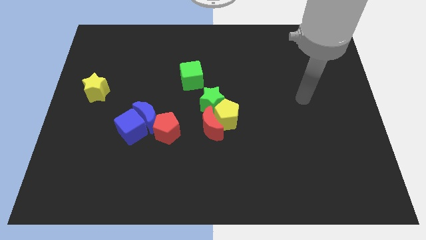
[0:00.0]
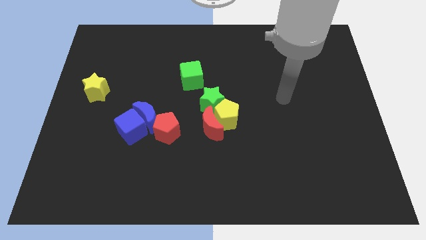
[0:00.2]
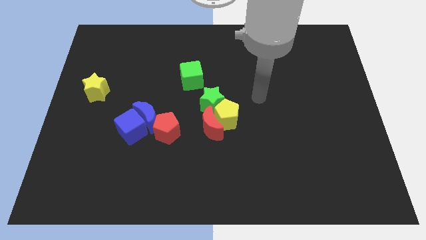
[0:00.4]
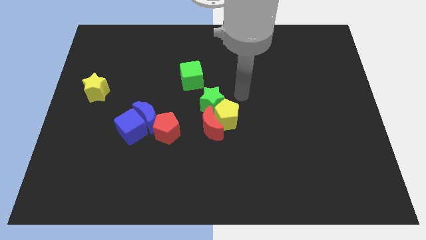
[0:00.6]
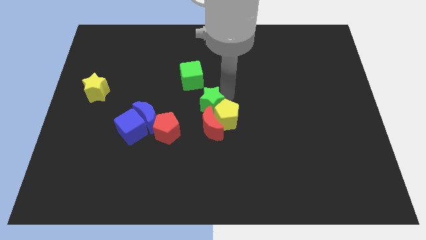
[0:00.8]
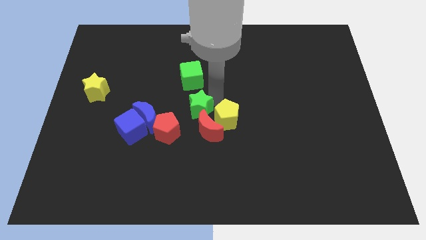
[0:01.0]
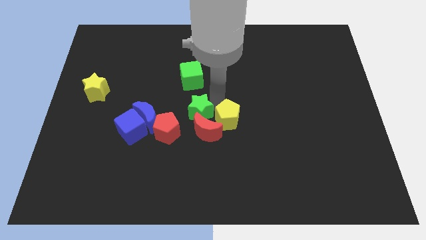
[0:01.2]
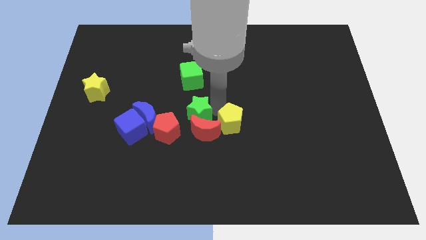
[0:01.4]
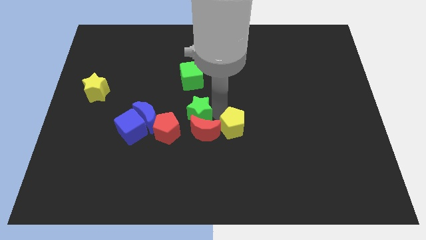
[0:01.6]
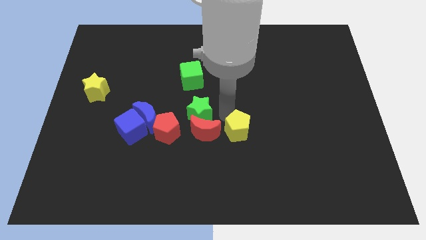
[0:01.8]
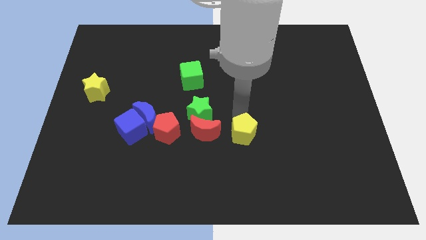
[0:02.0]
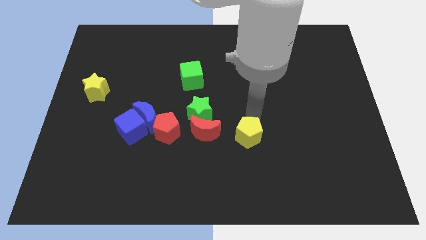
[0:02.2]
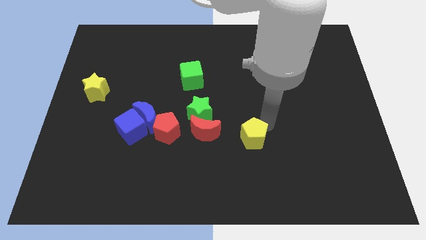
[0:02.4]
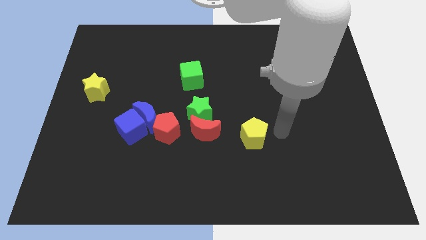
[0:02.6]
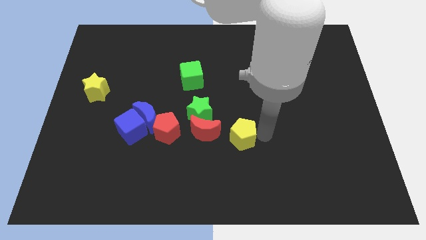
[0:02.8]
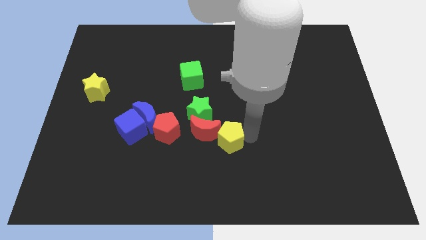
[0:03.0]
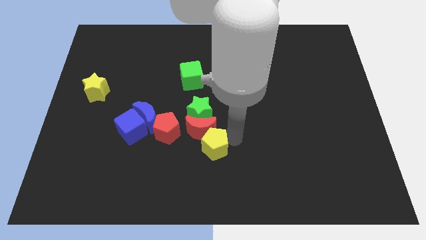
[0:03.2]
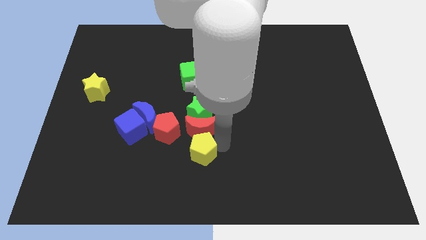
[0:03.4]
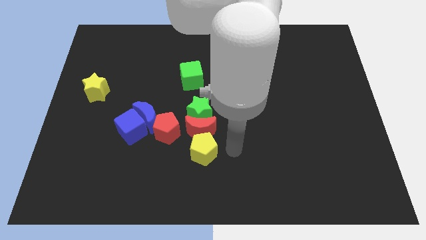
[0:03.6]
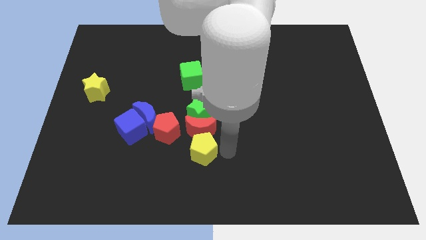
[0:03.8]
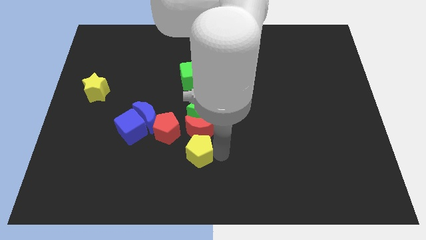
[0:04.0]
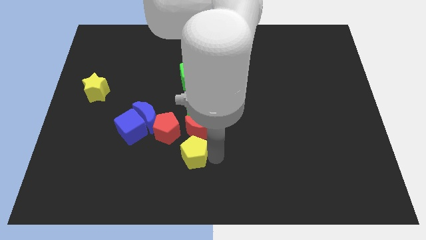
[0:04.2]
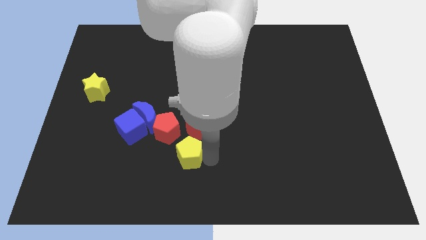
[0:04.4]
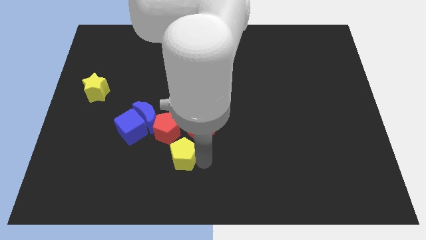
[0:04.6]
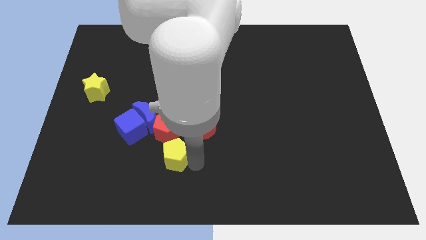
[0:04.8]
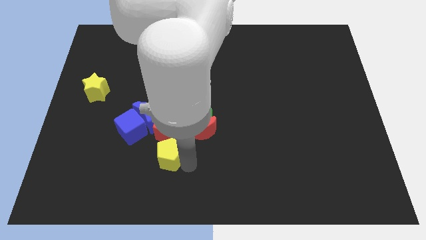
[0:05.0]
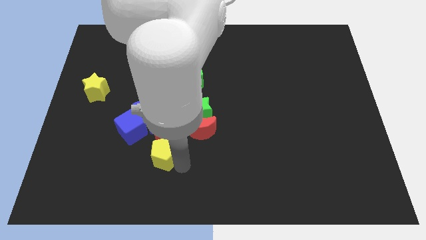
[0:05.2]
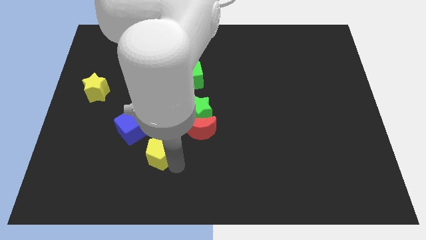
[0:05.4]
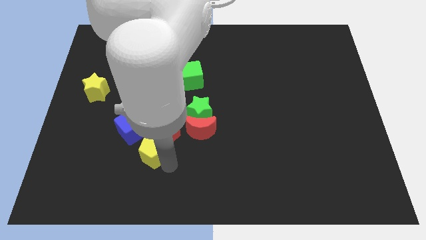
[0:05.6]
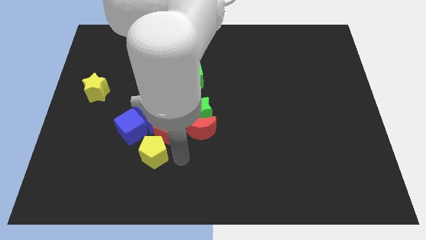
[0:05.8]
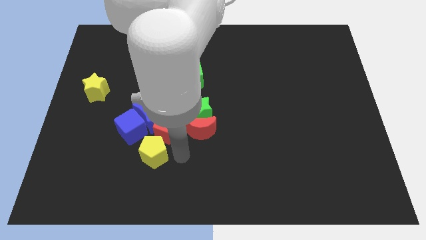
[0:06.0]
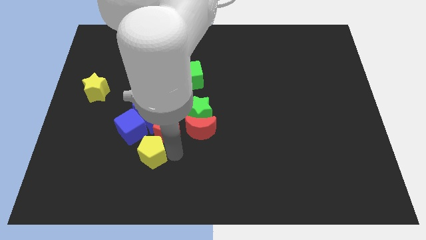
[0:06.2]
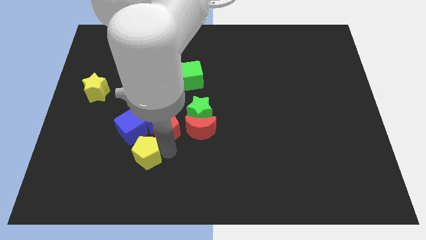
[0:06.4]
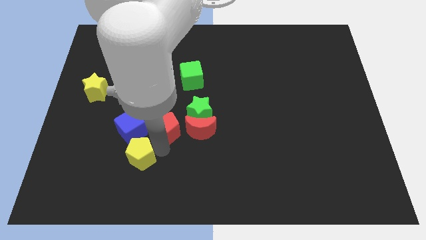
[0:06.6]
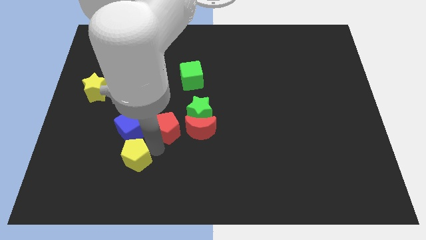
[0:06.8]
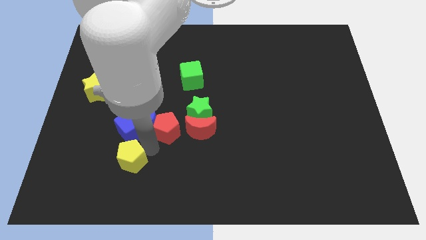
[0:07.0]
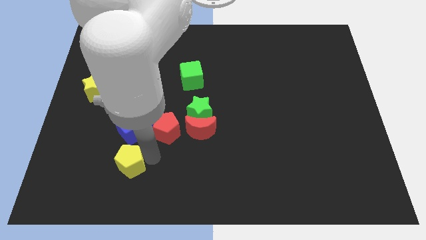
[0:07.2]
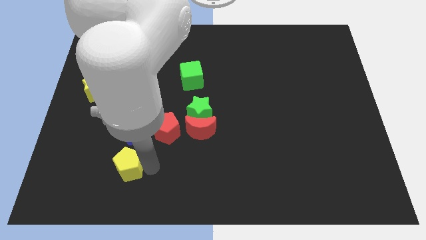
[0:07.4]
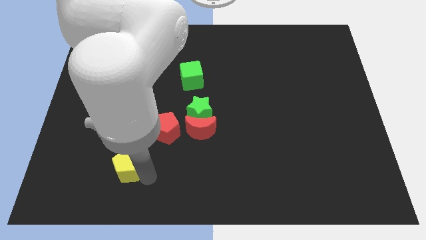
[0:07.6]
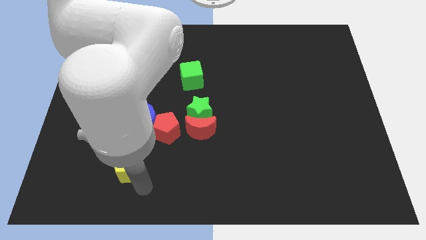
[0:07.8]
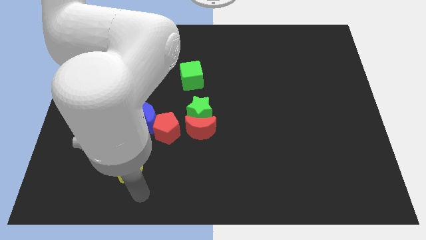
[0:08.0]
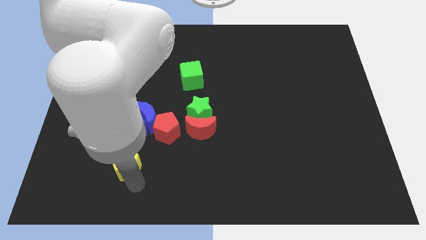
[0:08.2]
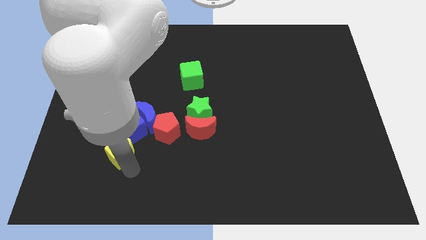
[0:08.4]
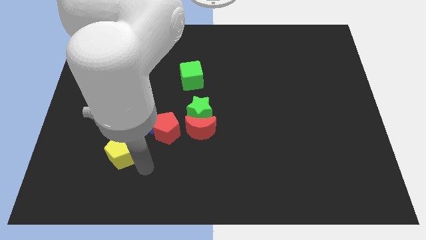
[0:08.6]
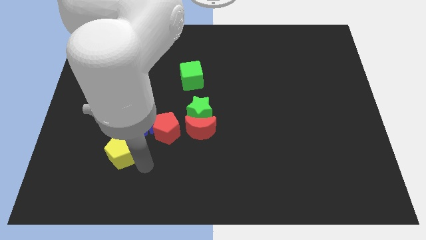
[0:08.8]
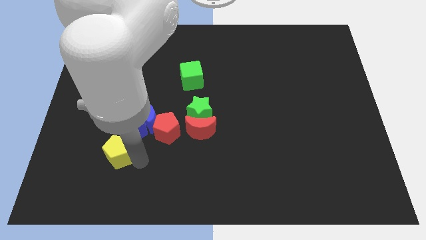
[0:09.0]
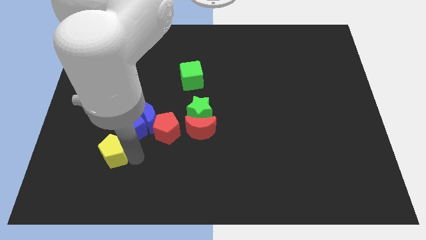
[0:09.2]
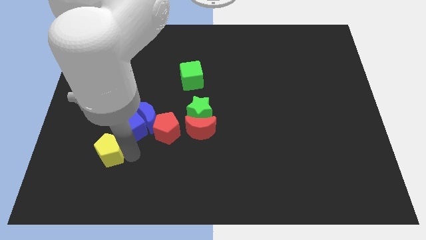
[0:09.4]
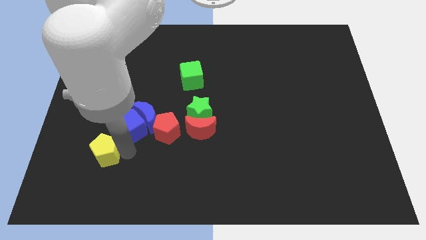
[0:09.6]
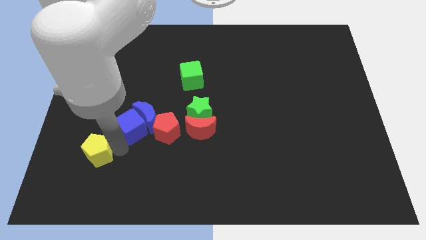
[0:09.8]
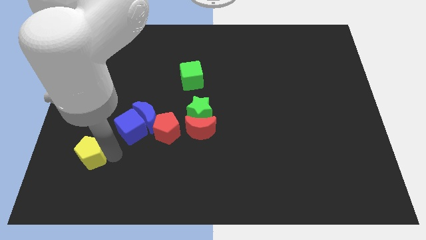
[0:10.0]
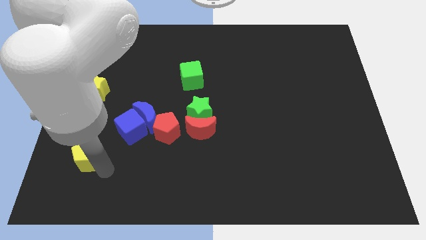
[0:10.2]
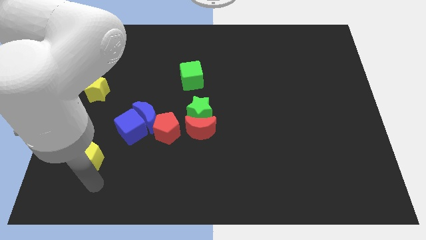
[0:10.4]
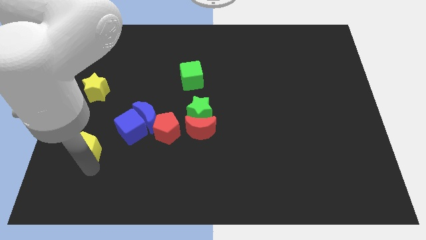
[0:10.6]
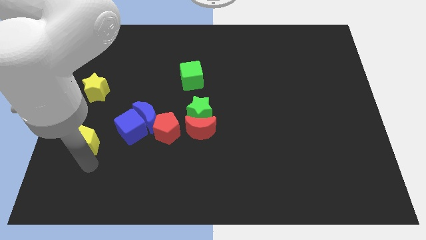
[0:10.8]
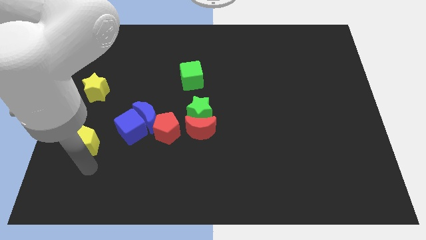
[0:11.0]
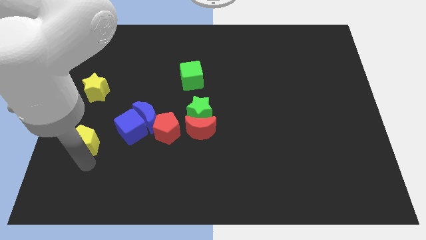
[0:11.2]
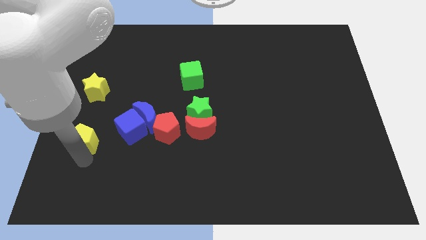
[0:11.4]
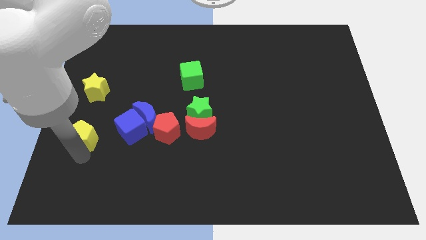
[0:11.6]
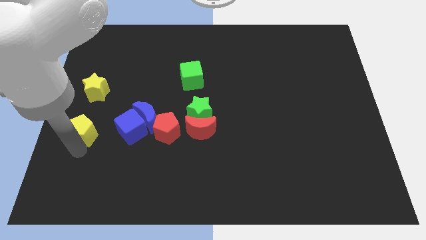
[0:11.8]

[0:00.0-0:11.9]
move the yellow pentagon to the left side of the board

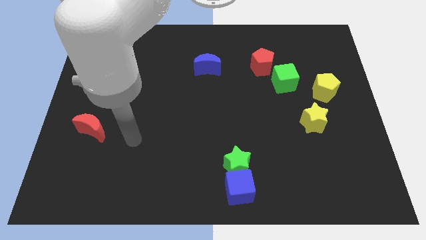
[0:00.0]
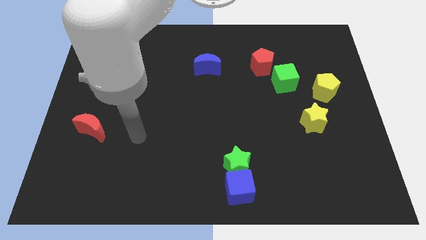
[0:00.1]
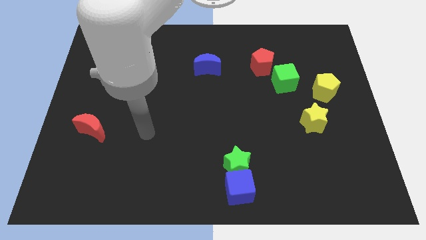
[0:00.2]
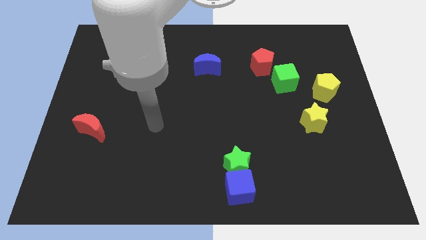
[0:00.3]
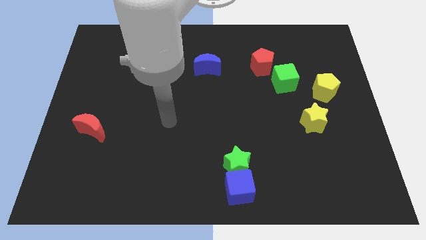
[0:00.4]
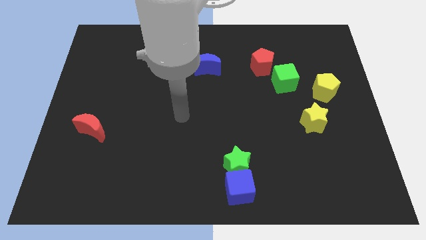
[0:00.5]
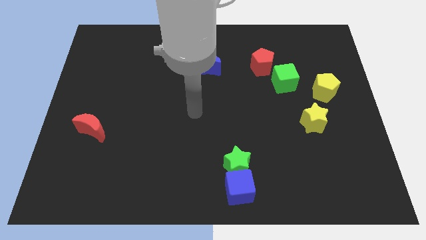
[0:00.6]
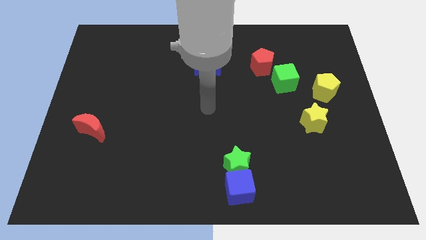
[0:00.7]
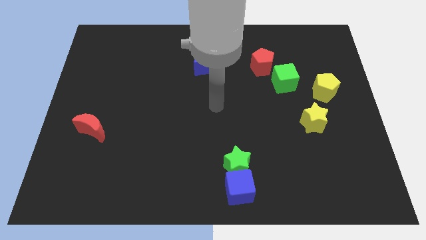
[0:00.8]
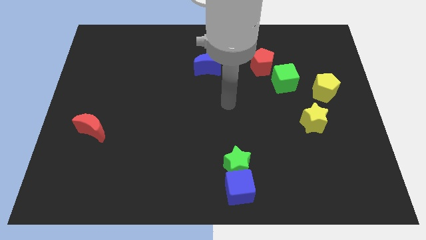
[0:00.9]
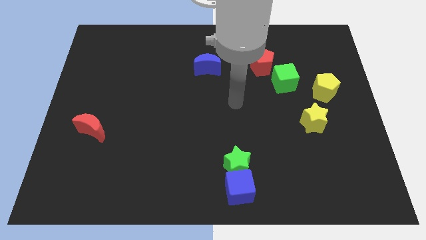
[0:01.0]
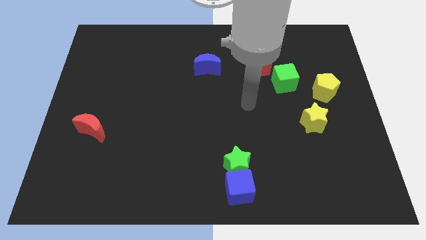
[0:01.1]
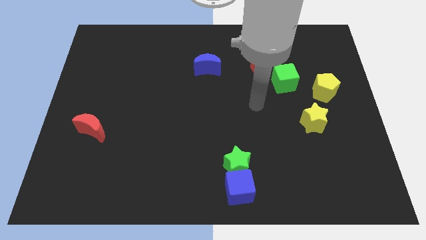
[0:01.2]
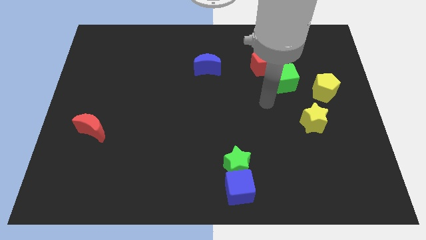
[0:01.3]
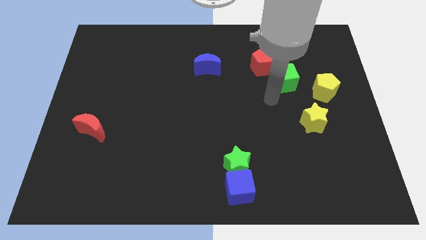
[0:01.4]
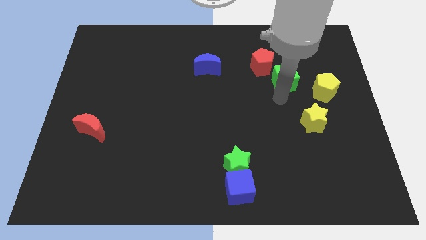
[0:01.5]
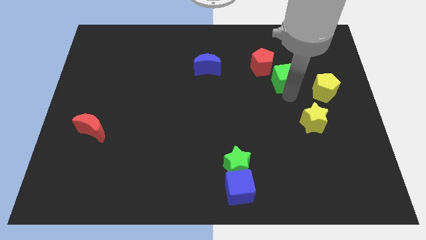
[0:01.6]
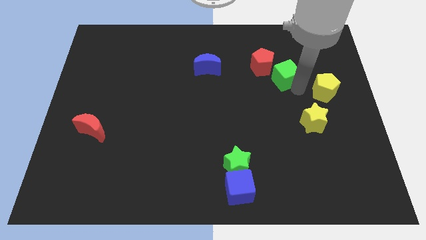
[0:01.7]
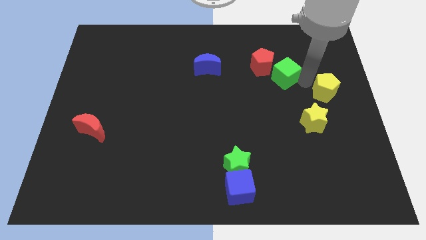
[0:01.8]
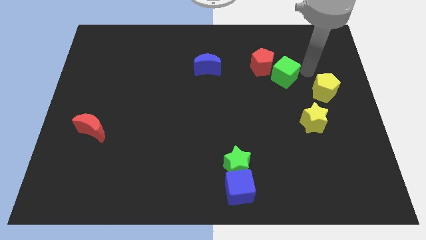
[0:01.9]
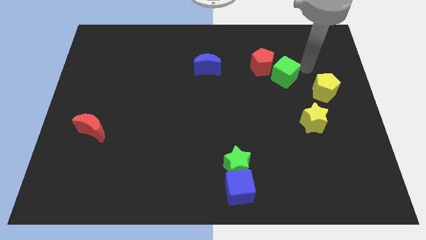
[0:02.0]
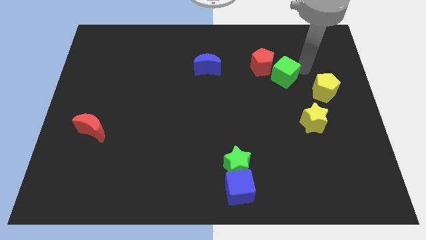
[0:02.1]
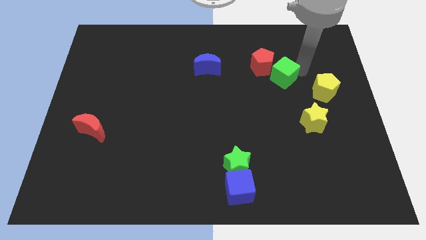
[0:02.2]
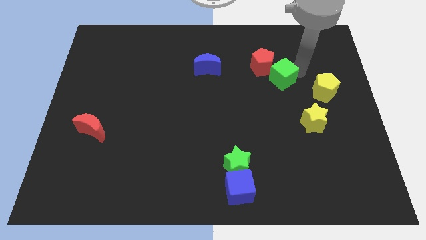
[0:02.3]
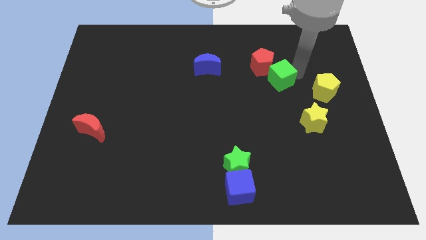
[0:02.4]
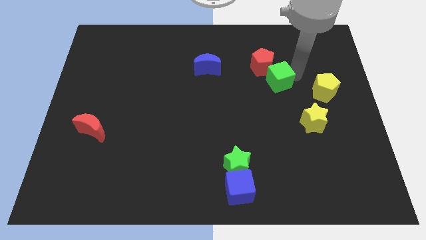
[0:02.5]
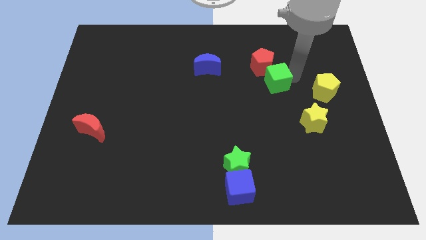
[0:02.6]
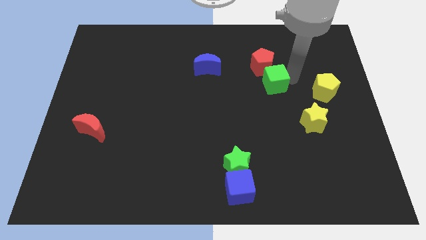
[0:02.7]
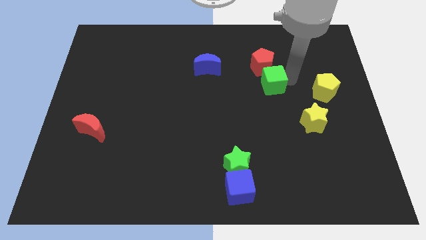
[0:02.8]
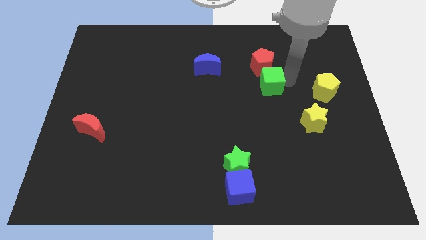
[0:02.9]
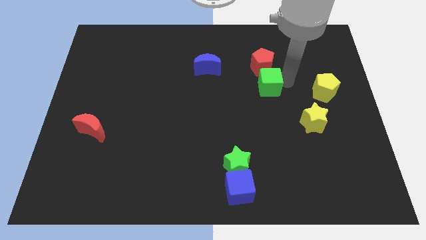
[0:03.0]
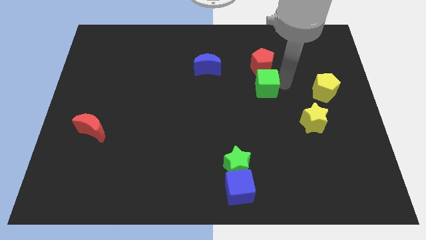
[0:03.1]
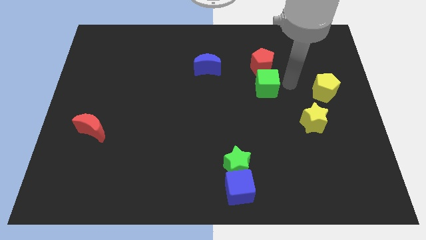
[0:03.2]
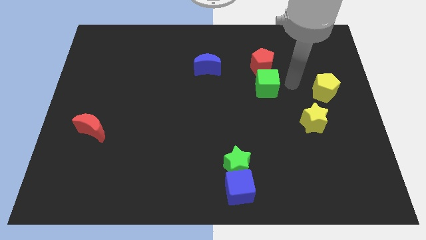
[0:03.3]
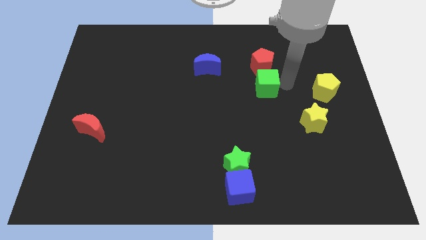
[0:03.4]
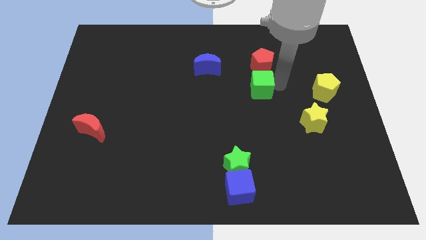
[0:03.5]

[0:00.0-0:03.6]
move the green cube to the middle
